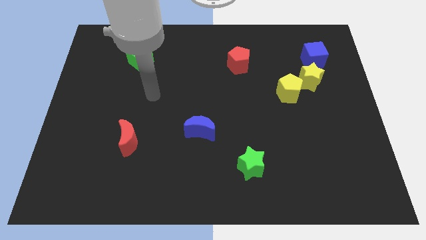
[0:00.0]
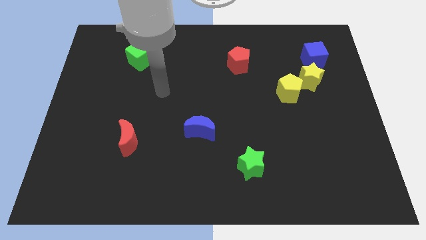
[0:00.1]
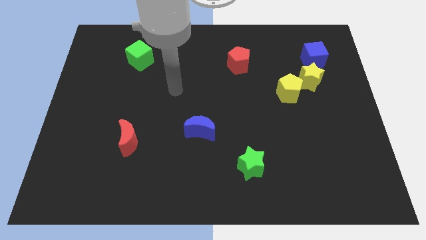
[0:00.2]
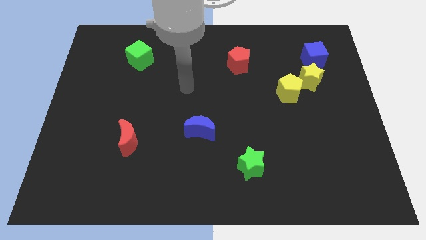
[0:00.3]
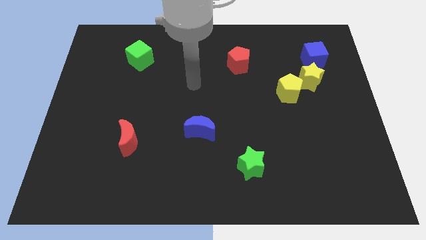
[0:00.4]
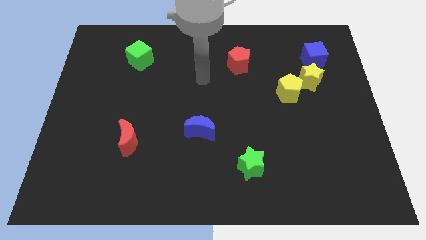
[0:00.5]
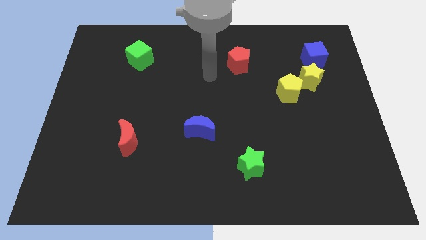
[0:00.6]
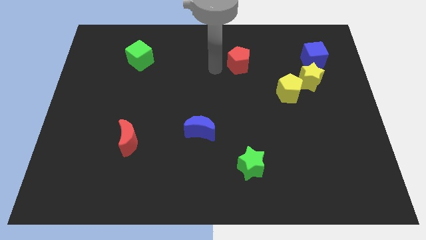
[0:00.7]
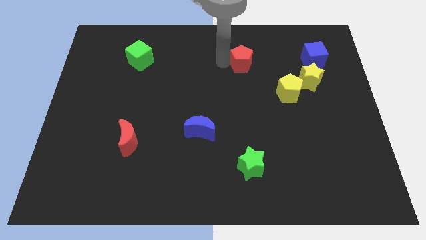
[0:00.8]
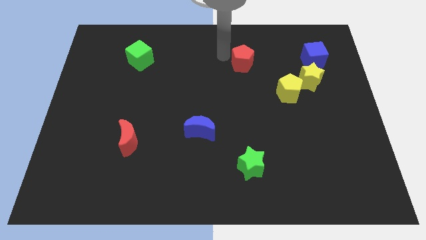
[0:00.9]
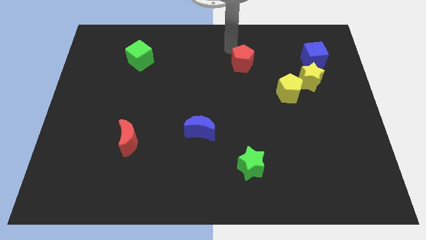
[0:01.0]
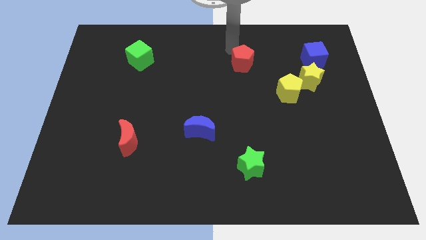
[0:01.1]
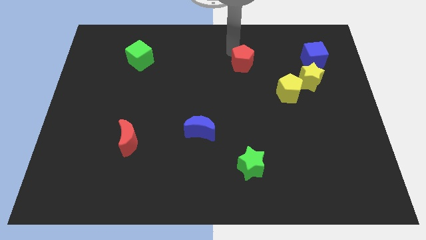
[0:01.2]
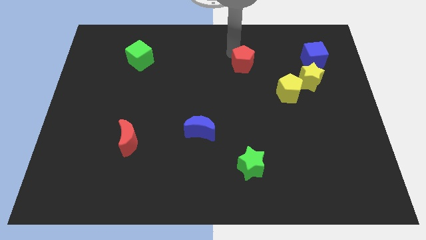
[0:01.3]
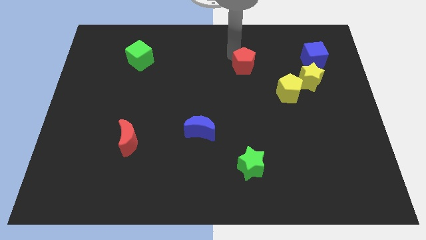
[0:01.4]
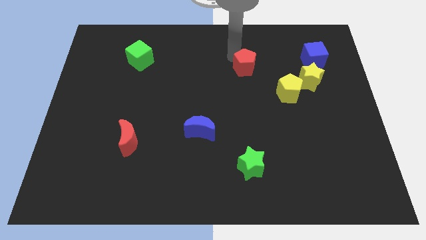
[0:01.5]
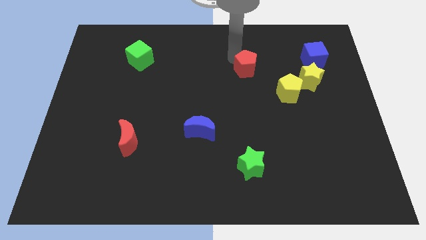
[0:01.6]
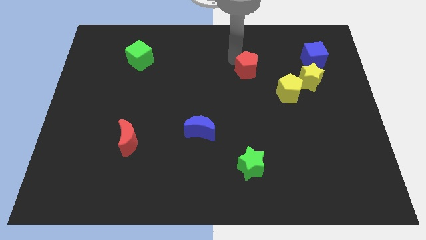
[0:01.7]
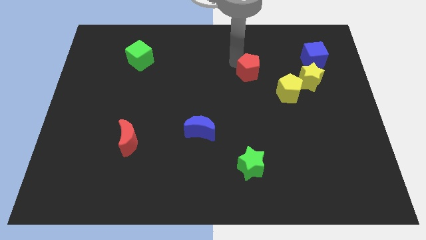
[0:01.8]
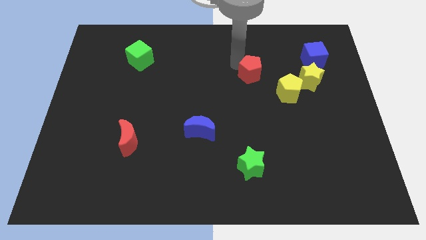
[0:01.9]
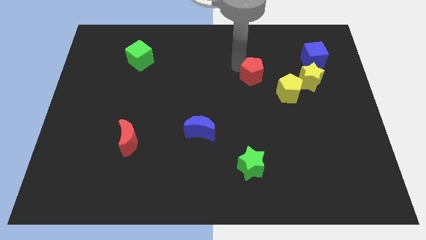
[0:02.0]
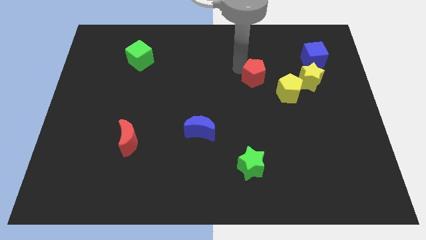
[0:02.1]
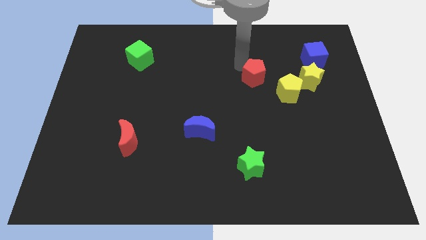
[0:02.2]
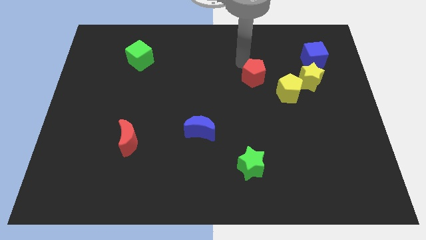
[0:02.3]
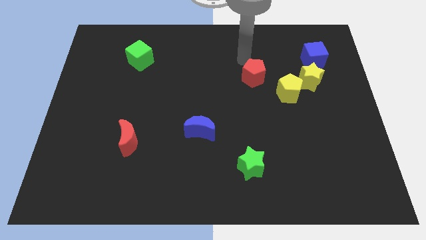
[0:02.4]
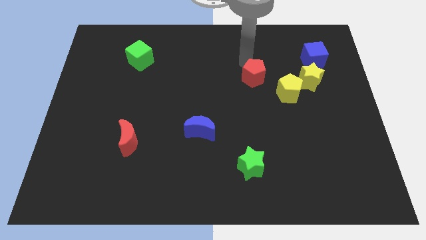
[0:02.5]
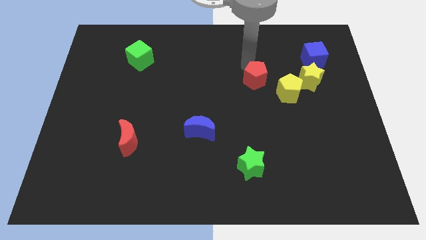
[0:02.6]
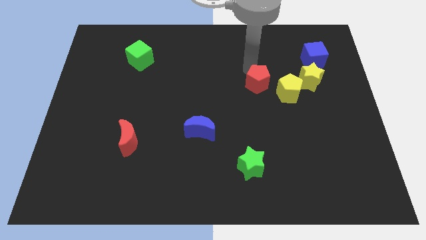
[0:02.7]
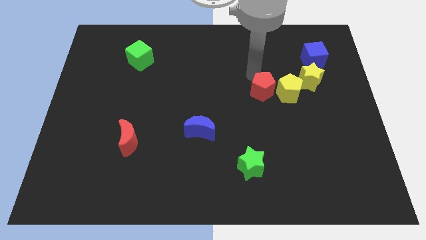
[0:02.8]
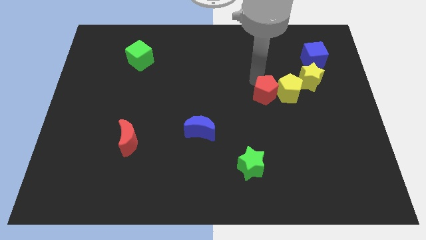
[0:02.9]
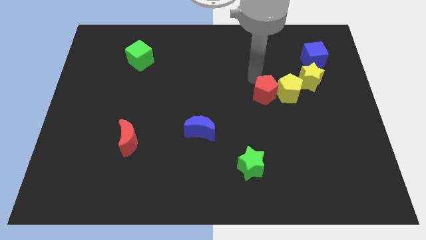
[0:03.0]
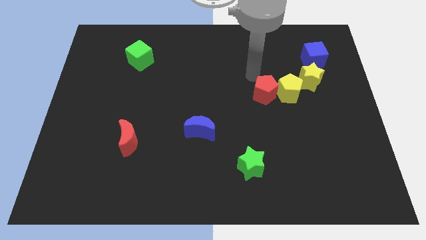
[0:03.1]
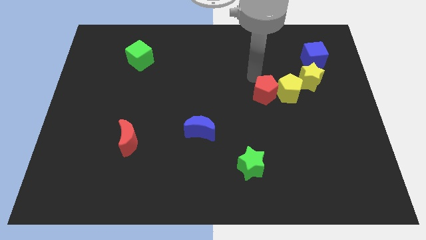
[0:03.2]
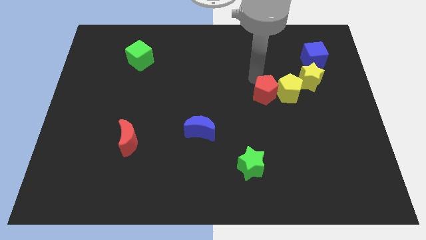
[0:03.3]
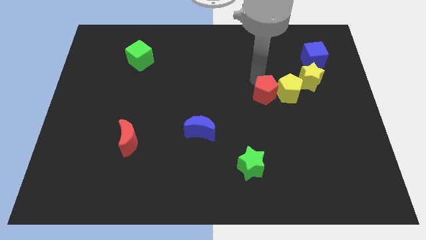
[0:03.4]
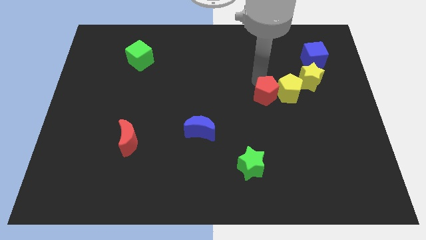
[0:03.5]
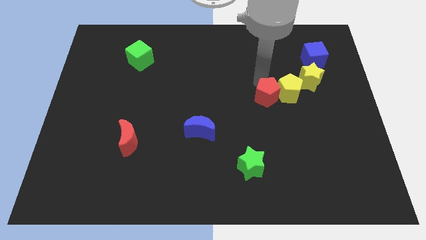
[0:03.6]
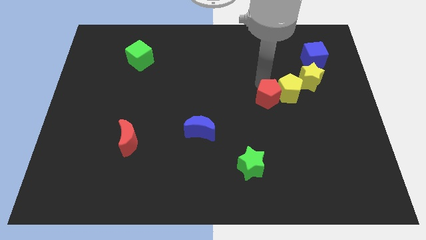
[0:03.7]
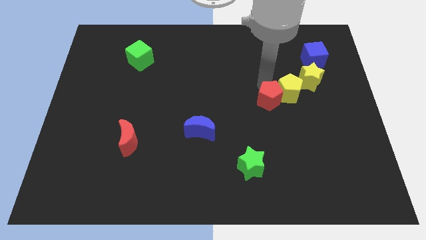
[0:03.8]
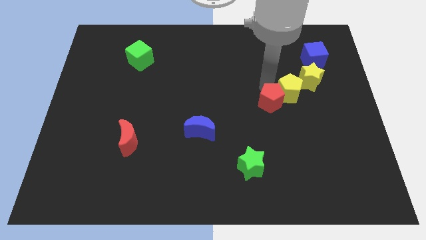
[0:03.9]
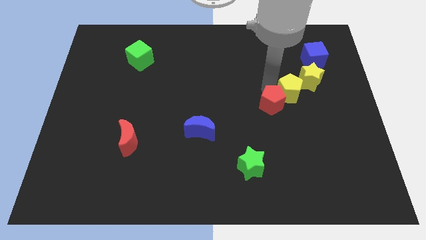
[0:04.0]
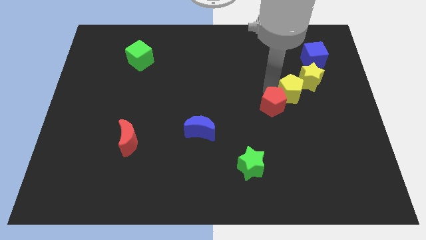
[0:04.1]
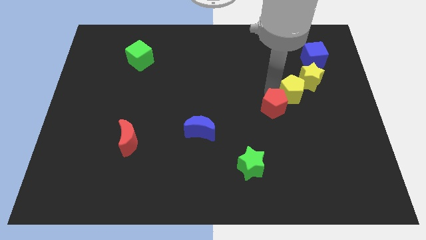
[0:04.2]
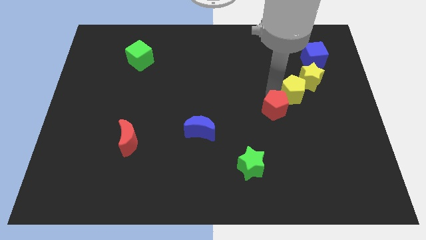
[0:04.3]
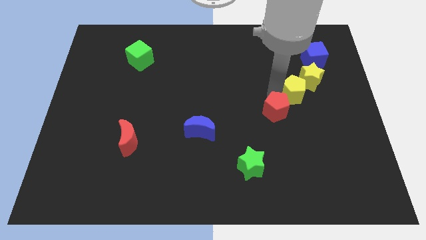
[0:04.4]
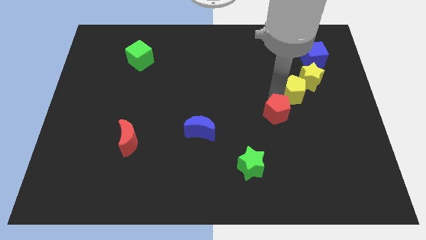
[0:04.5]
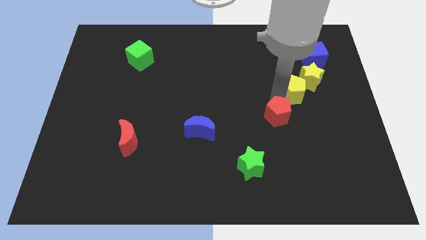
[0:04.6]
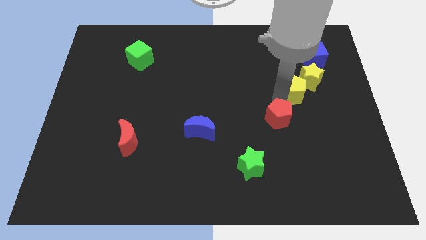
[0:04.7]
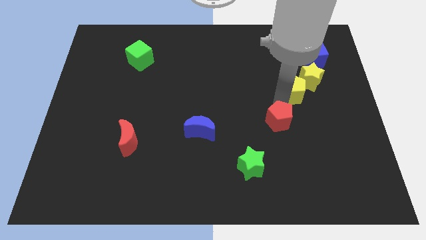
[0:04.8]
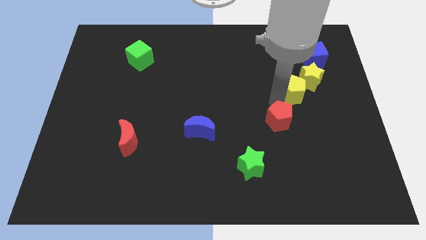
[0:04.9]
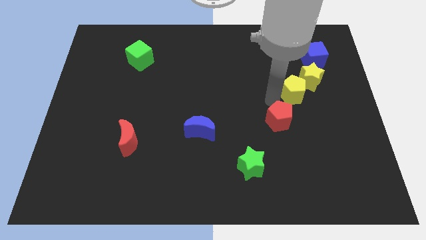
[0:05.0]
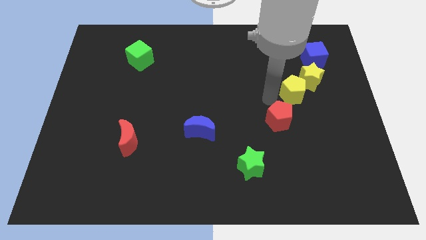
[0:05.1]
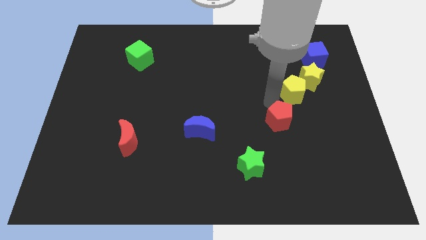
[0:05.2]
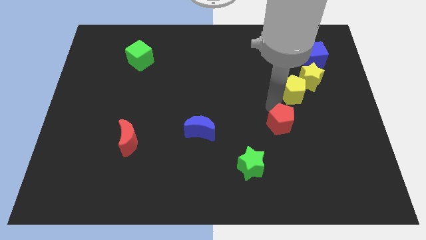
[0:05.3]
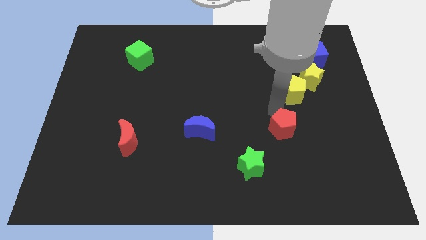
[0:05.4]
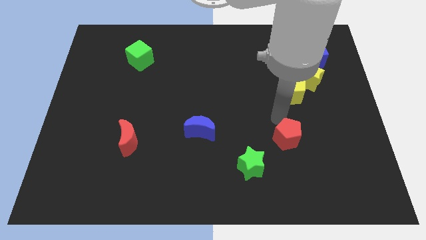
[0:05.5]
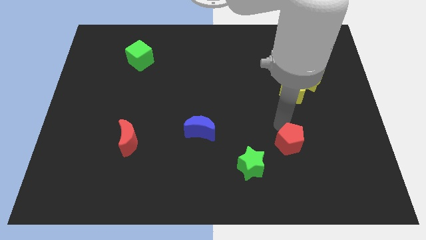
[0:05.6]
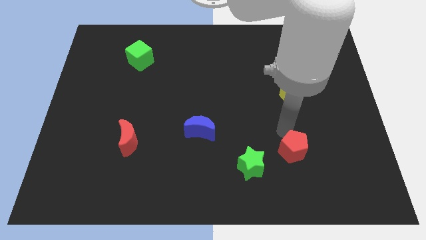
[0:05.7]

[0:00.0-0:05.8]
put the red pentagon to the right side of the green star

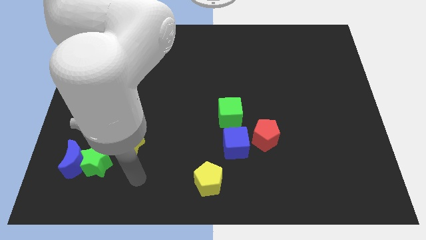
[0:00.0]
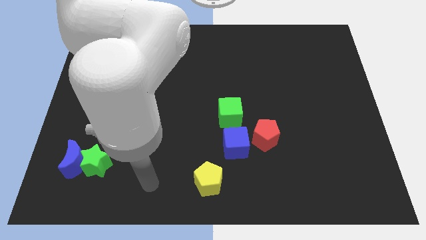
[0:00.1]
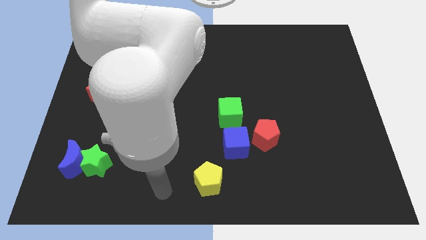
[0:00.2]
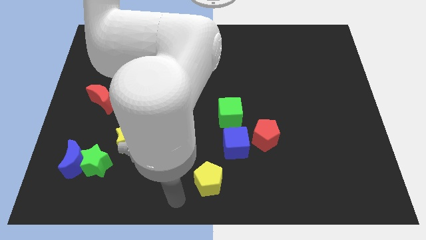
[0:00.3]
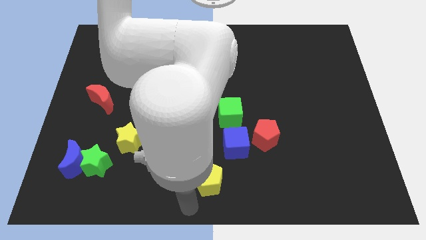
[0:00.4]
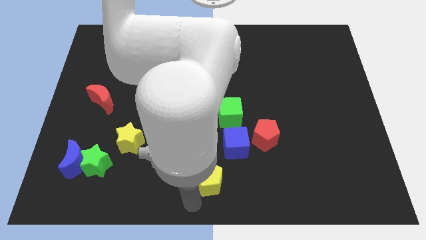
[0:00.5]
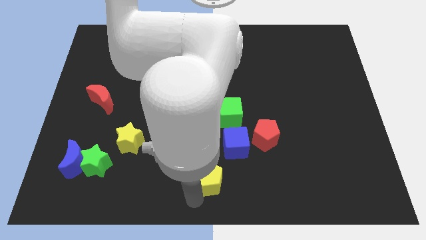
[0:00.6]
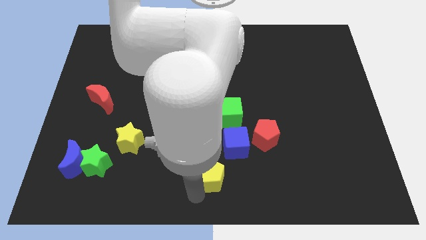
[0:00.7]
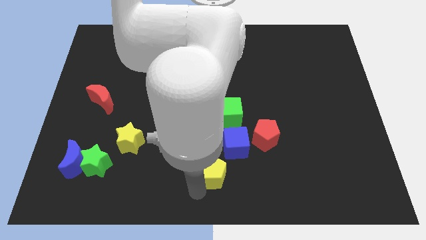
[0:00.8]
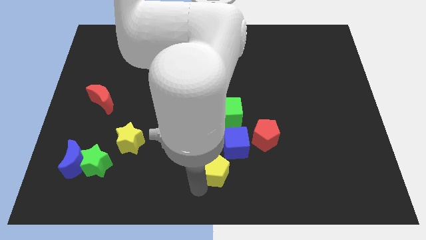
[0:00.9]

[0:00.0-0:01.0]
put the yellow pentagon to the bottom of the green cube

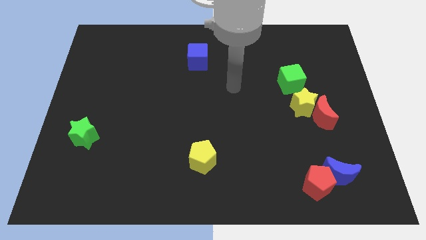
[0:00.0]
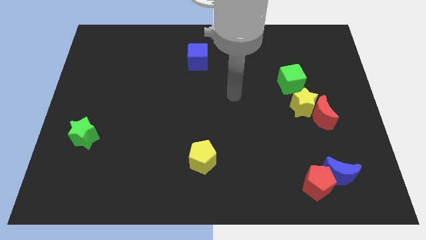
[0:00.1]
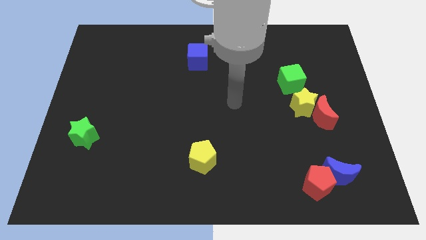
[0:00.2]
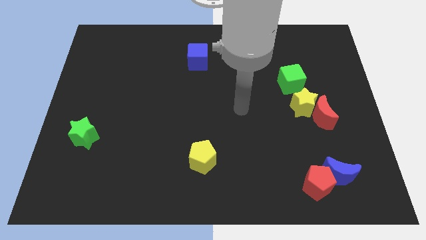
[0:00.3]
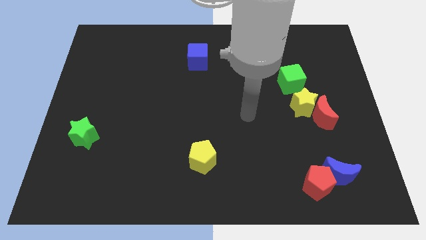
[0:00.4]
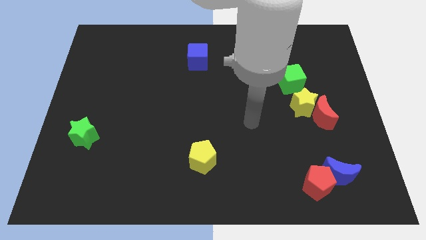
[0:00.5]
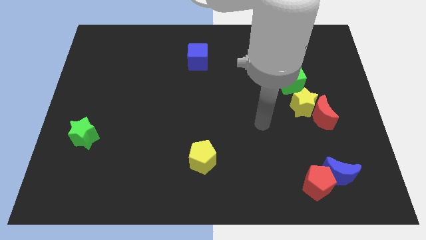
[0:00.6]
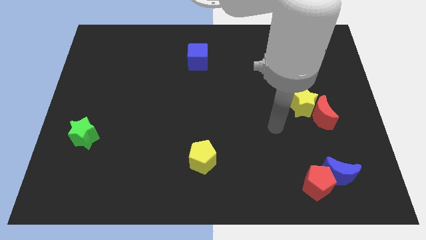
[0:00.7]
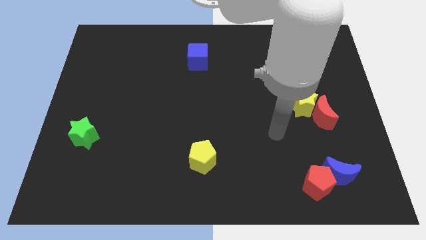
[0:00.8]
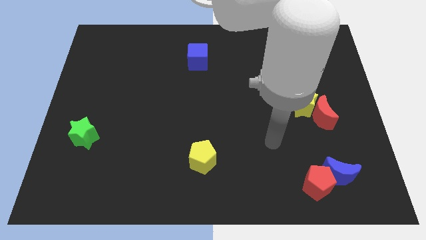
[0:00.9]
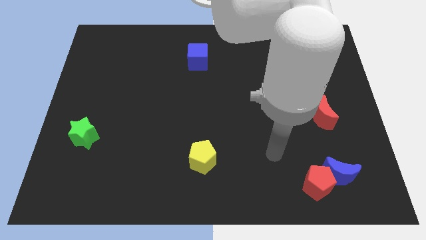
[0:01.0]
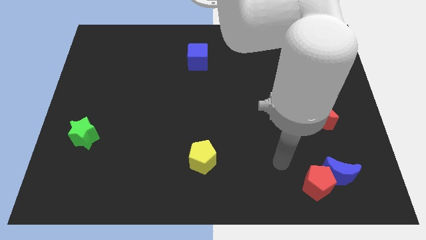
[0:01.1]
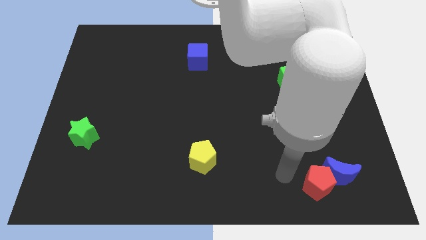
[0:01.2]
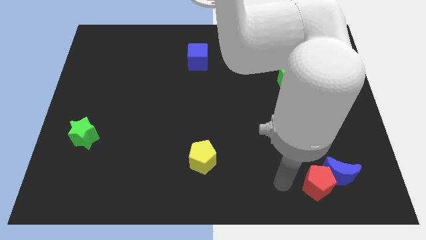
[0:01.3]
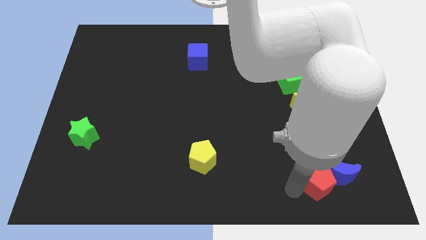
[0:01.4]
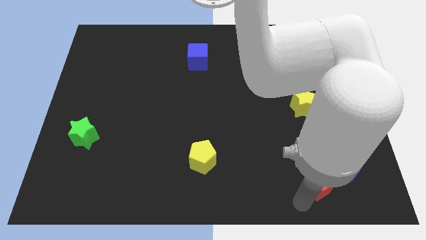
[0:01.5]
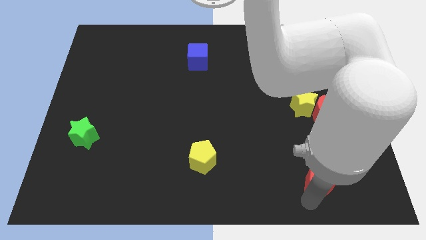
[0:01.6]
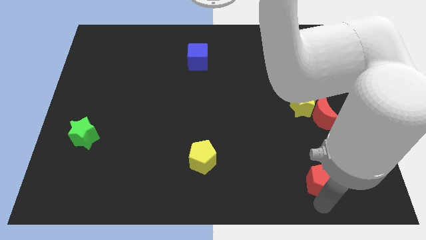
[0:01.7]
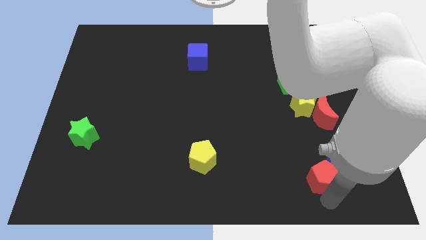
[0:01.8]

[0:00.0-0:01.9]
push the blue moon above the red pentagon
